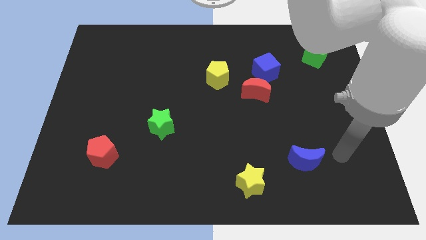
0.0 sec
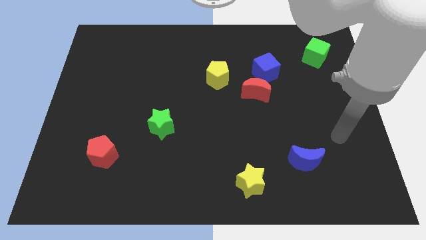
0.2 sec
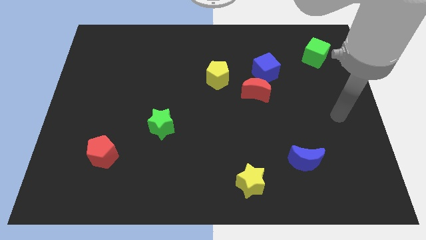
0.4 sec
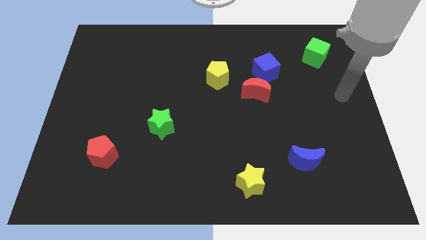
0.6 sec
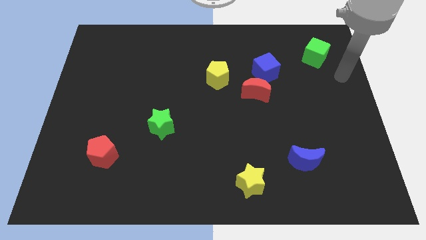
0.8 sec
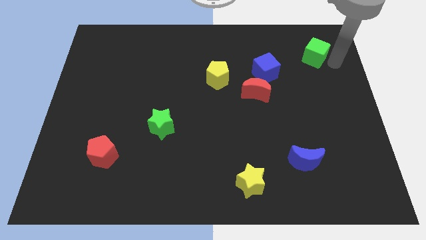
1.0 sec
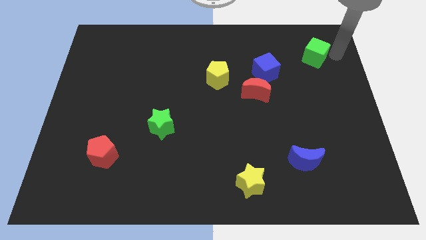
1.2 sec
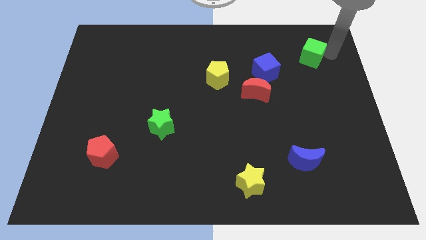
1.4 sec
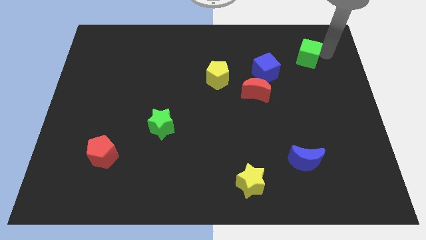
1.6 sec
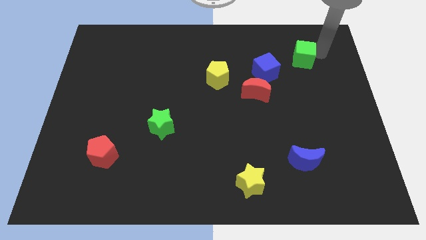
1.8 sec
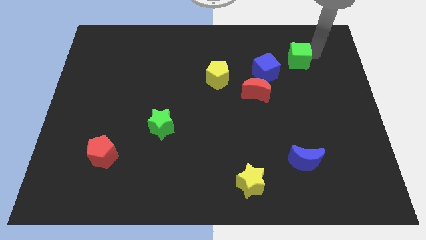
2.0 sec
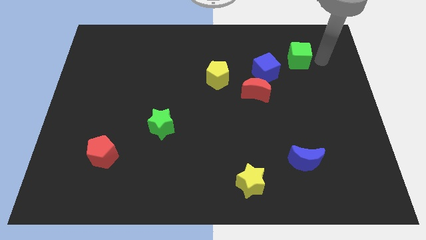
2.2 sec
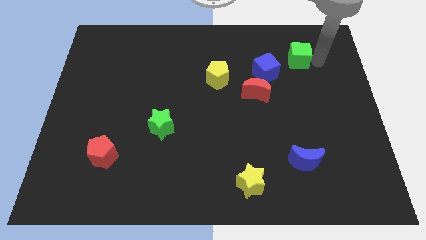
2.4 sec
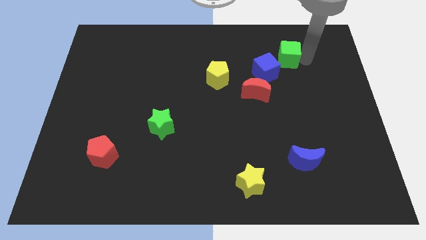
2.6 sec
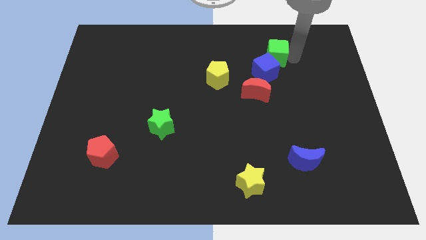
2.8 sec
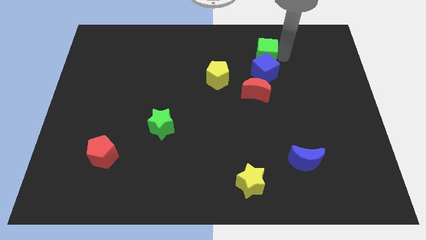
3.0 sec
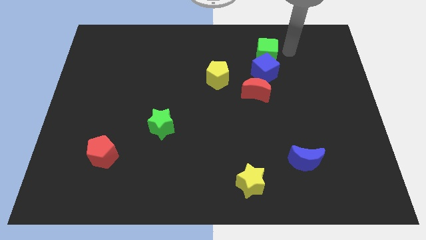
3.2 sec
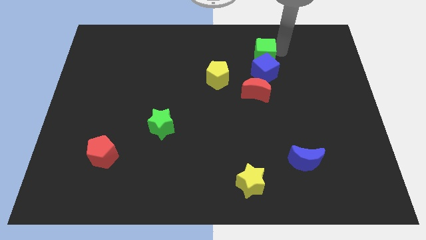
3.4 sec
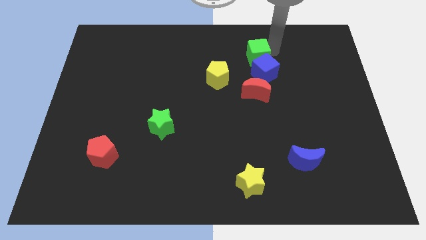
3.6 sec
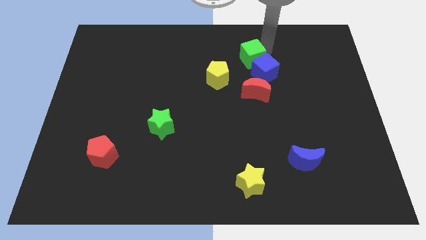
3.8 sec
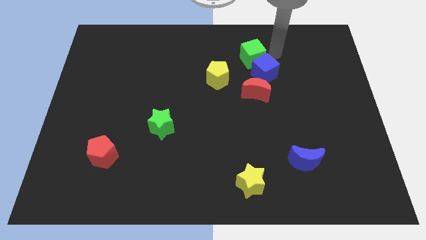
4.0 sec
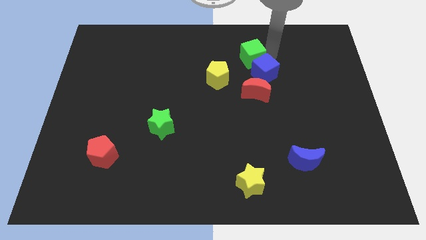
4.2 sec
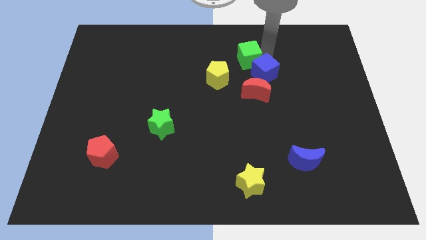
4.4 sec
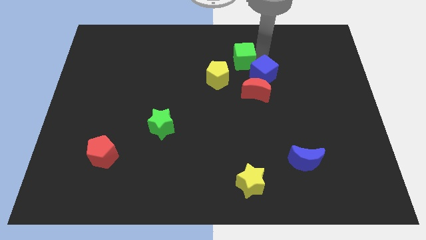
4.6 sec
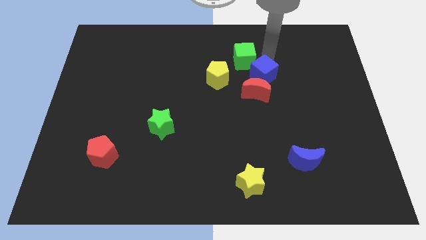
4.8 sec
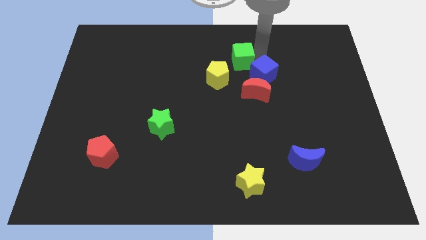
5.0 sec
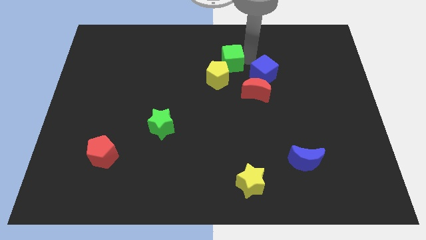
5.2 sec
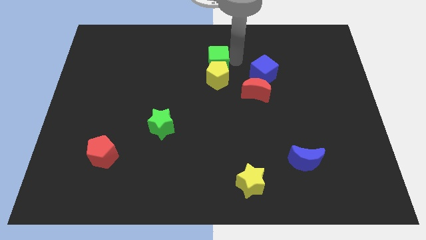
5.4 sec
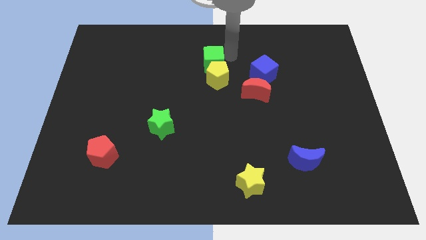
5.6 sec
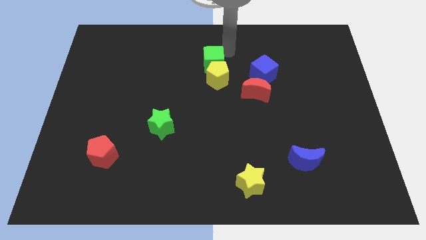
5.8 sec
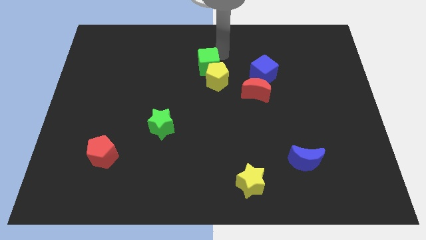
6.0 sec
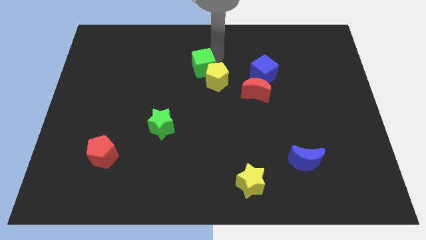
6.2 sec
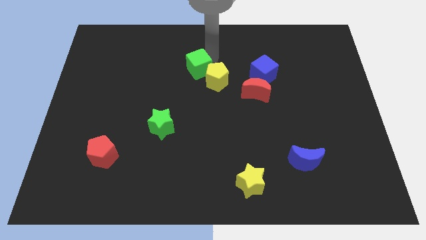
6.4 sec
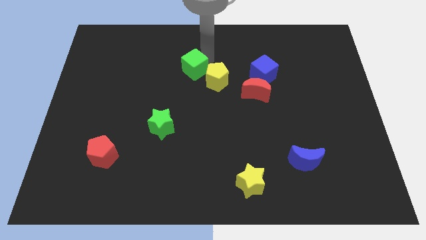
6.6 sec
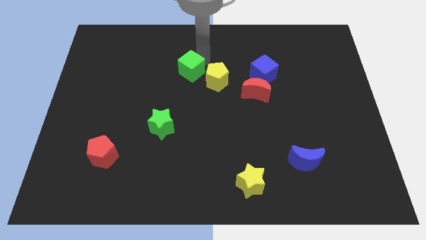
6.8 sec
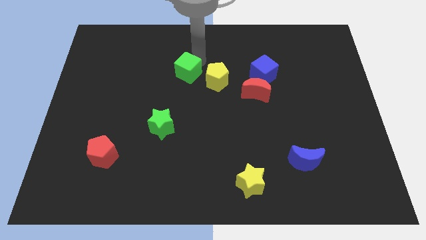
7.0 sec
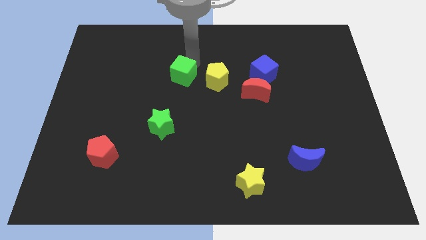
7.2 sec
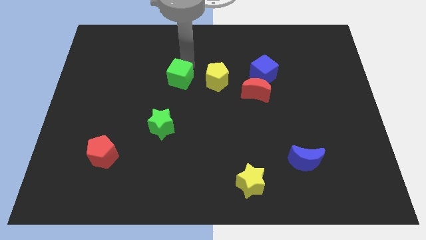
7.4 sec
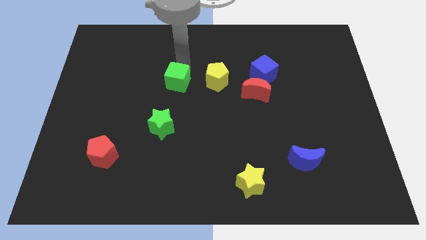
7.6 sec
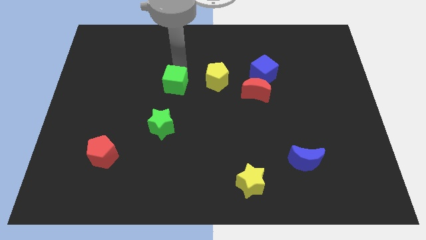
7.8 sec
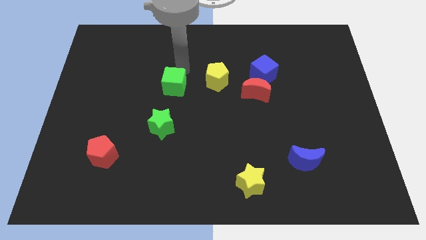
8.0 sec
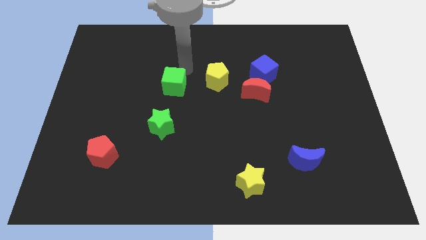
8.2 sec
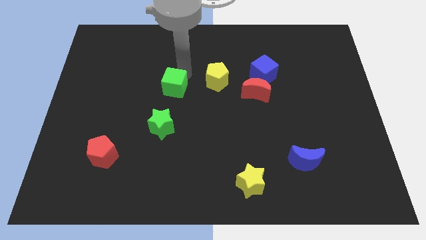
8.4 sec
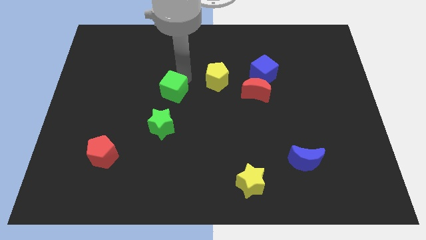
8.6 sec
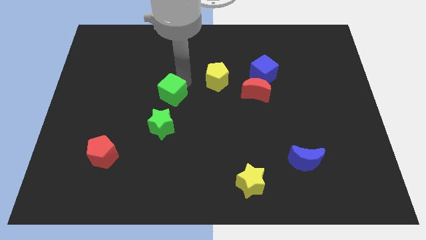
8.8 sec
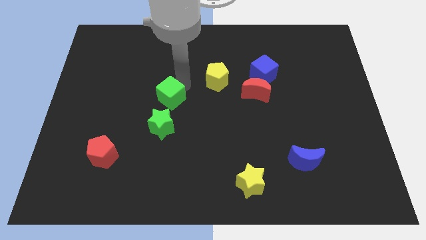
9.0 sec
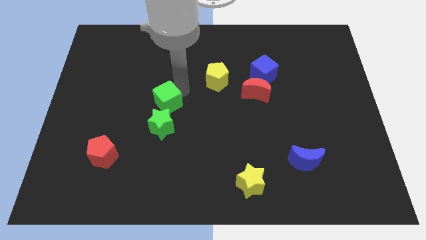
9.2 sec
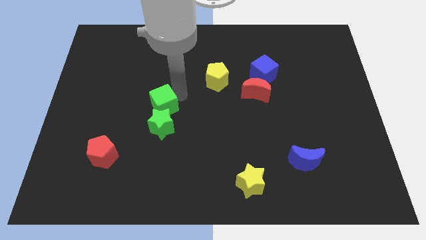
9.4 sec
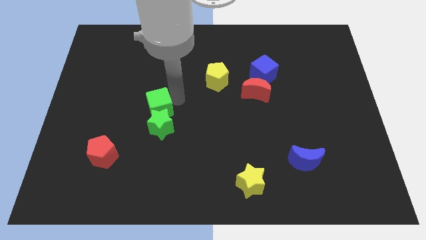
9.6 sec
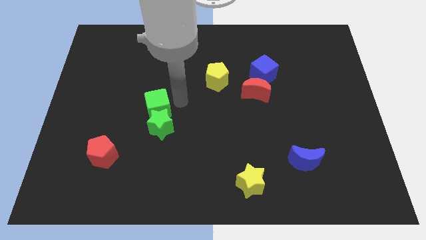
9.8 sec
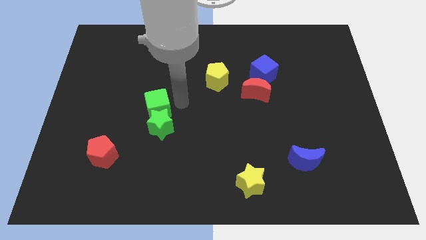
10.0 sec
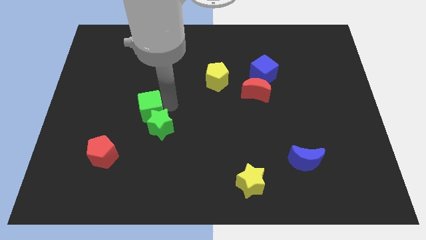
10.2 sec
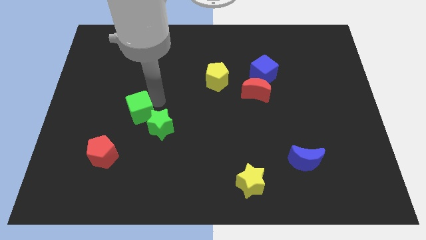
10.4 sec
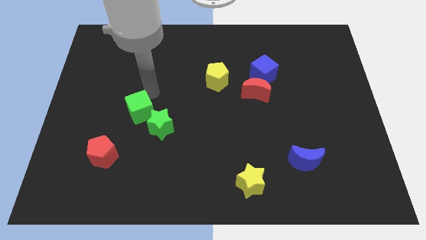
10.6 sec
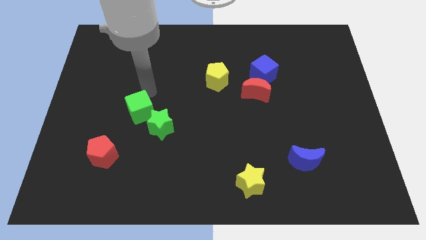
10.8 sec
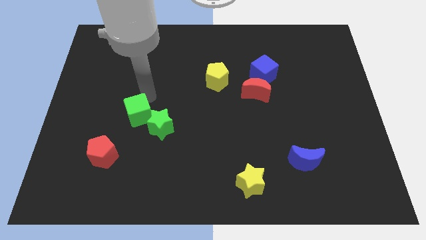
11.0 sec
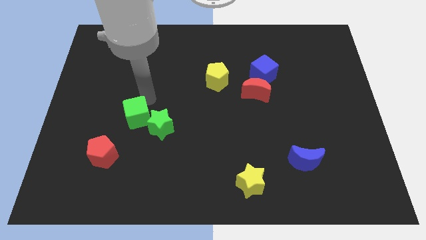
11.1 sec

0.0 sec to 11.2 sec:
put the green cube to the top right side of the red pentagon

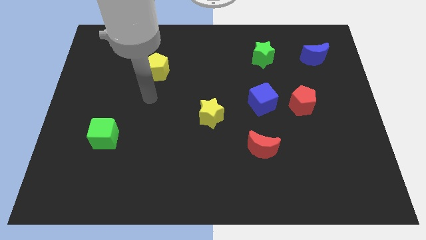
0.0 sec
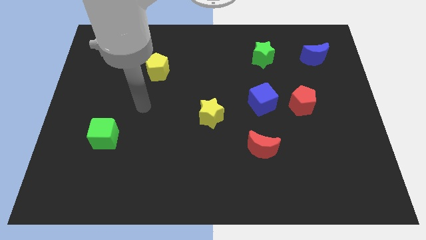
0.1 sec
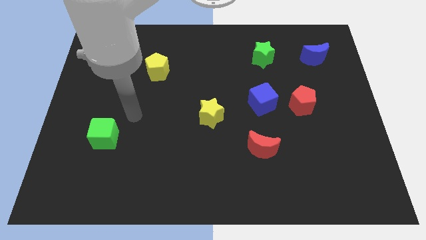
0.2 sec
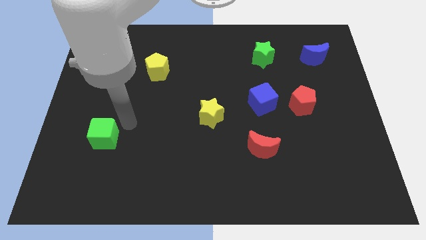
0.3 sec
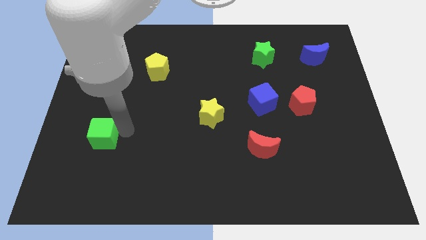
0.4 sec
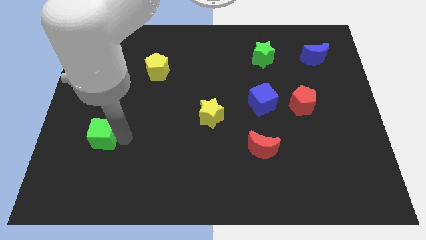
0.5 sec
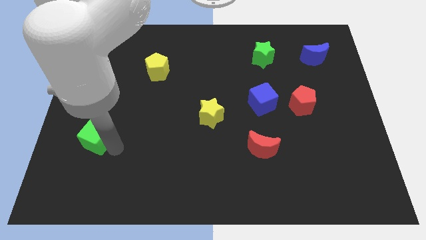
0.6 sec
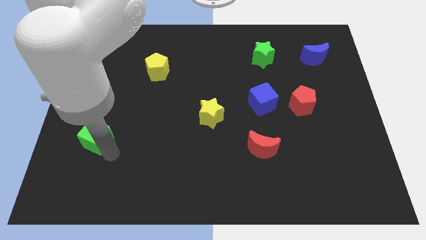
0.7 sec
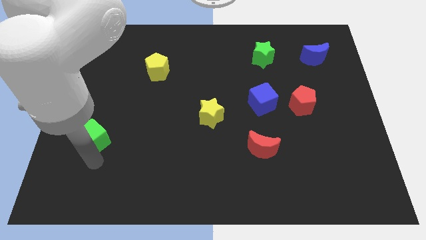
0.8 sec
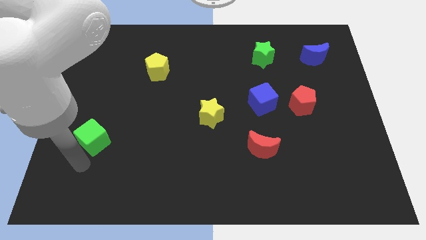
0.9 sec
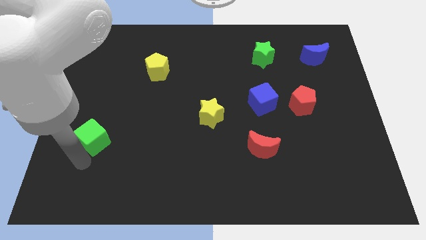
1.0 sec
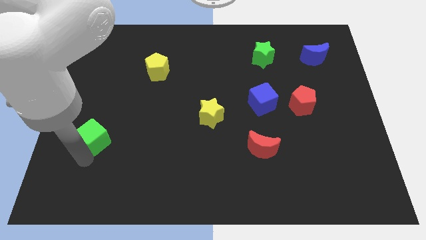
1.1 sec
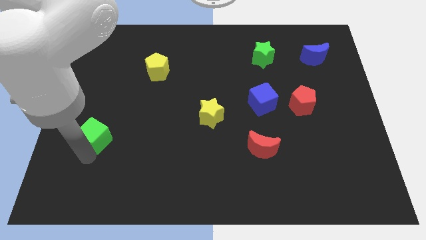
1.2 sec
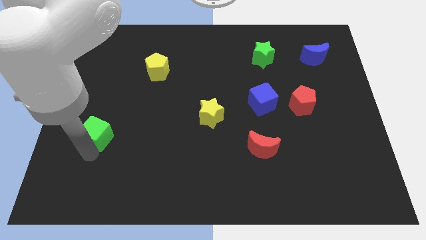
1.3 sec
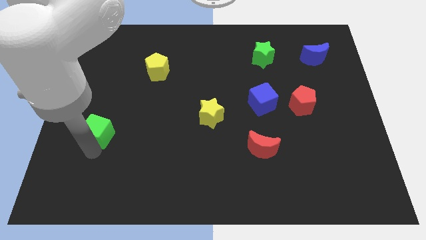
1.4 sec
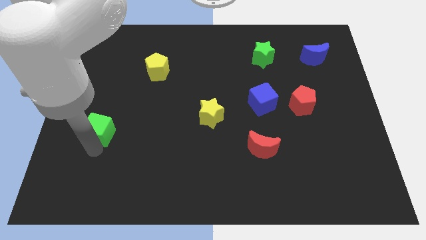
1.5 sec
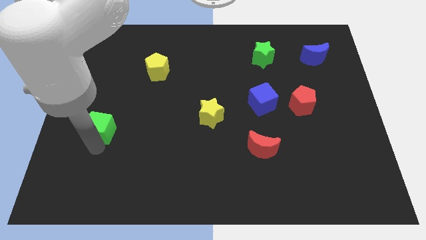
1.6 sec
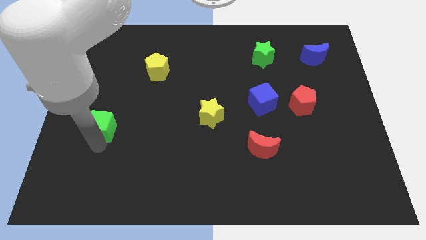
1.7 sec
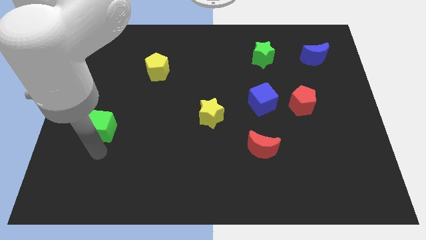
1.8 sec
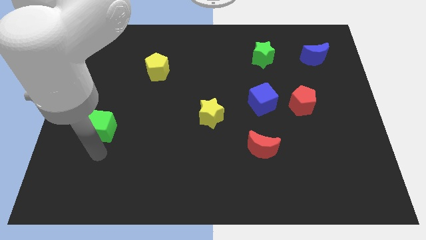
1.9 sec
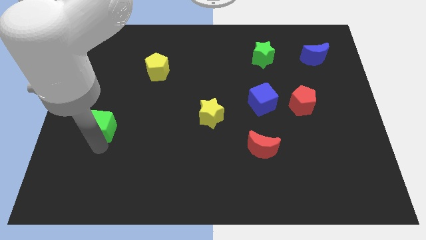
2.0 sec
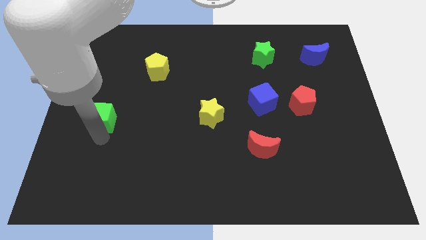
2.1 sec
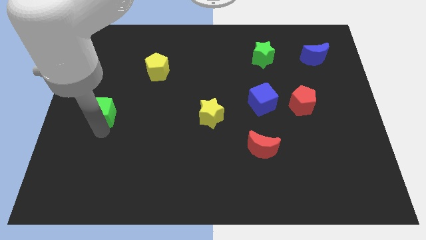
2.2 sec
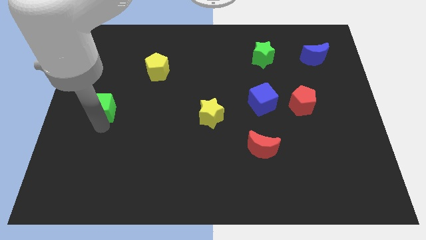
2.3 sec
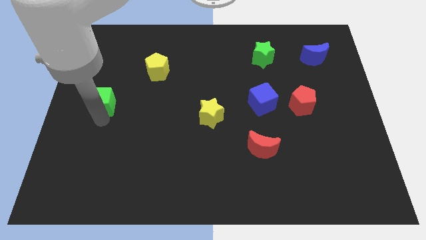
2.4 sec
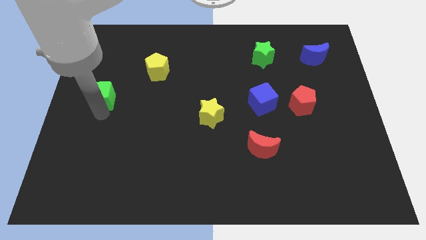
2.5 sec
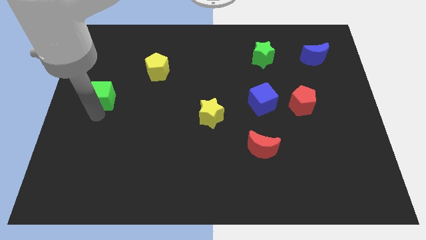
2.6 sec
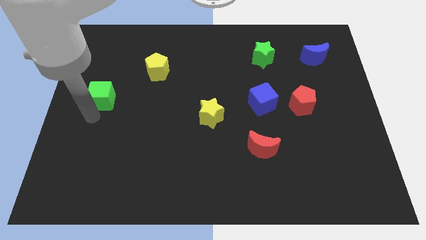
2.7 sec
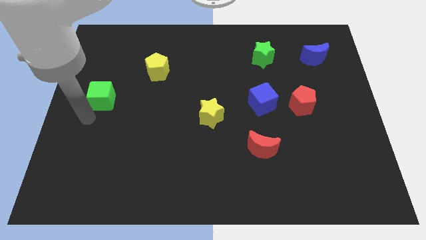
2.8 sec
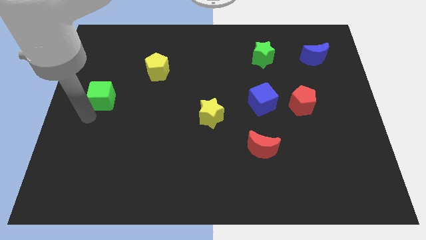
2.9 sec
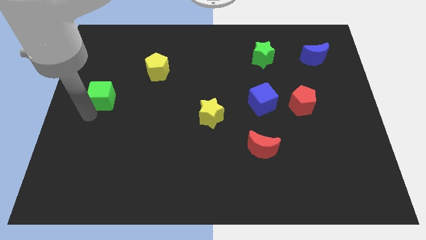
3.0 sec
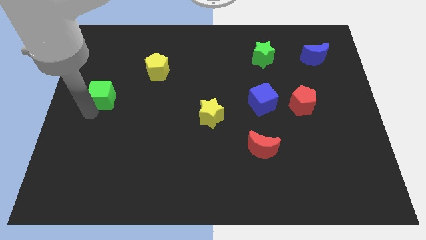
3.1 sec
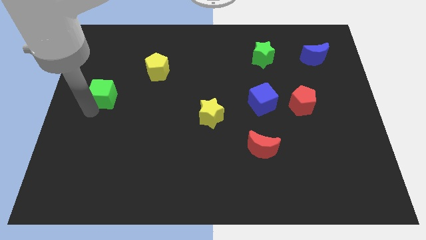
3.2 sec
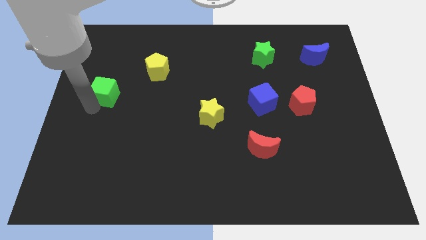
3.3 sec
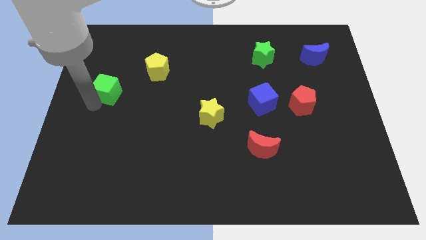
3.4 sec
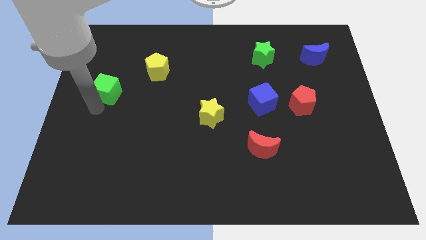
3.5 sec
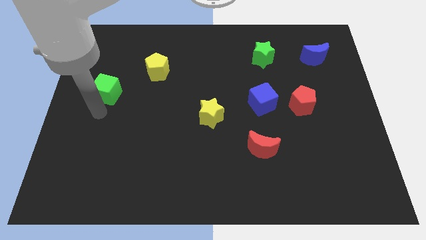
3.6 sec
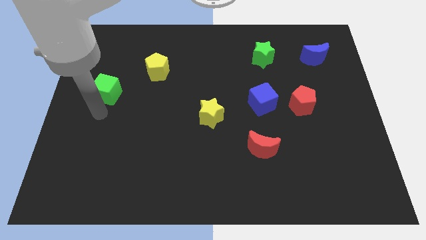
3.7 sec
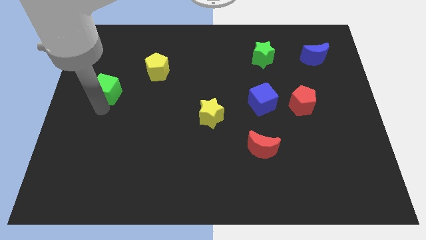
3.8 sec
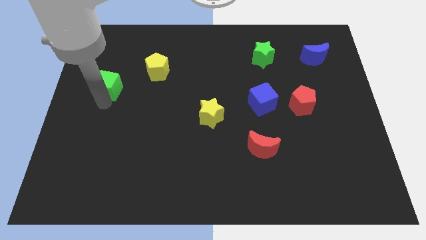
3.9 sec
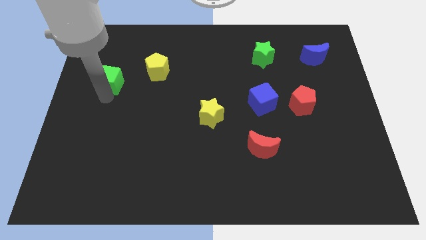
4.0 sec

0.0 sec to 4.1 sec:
slide the green cube just left of the yellow pentagon
